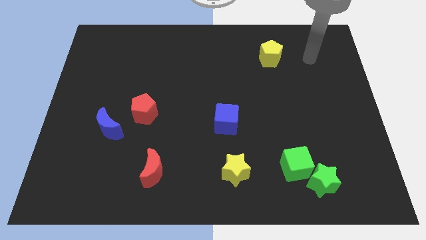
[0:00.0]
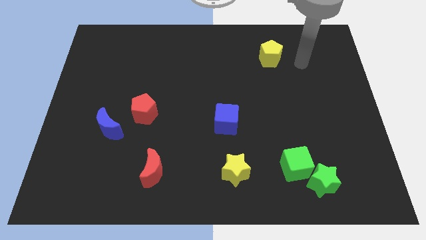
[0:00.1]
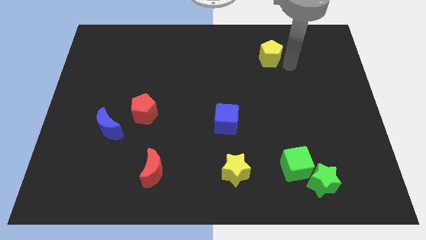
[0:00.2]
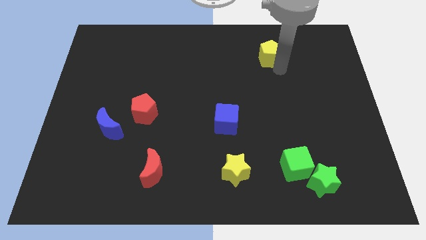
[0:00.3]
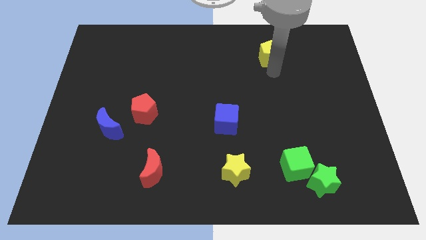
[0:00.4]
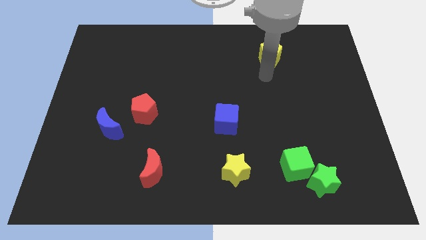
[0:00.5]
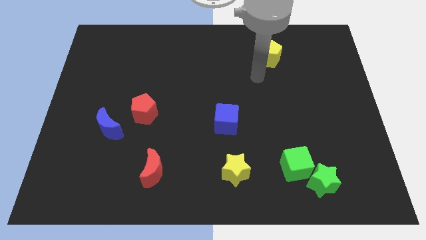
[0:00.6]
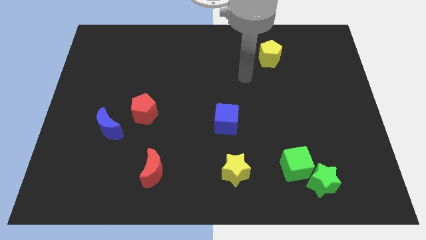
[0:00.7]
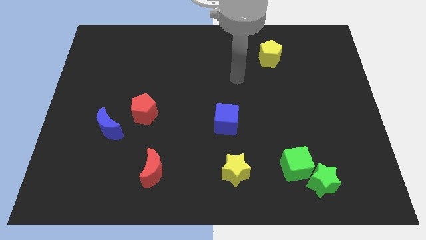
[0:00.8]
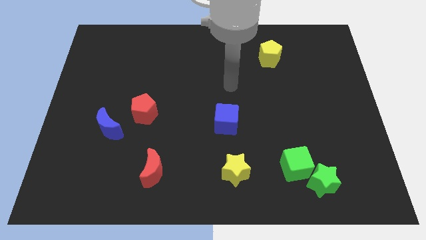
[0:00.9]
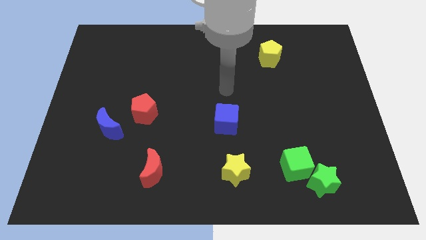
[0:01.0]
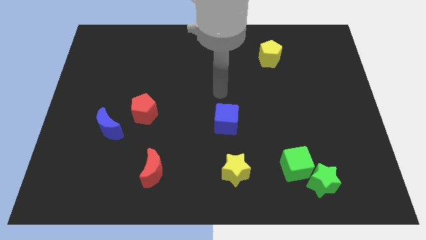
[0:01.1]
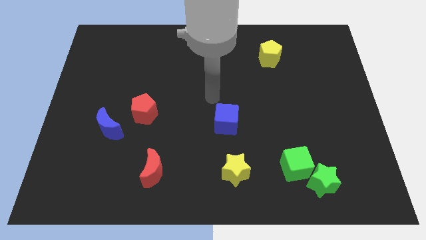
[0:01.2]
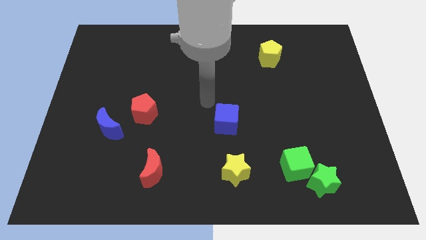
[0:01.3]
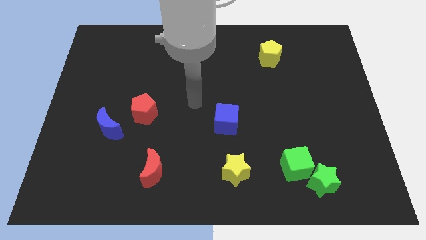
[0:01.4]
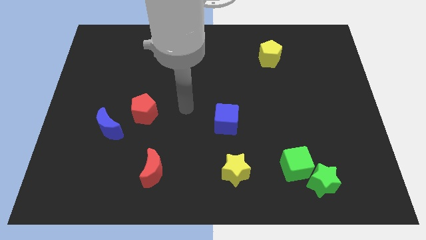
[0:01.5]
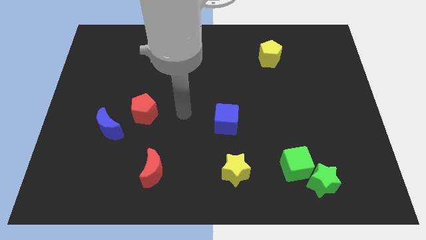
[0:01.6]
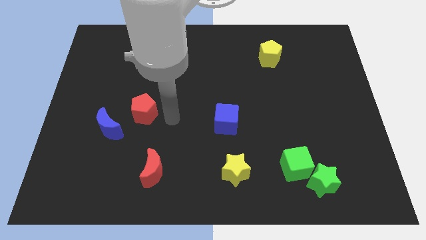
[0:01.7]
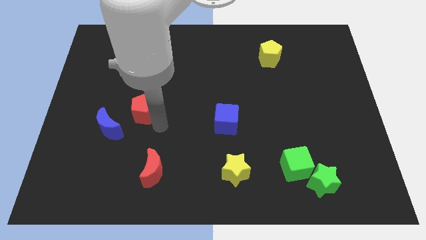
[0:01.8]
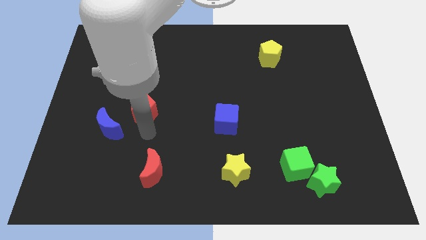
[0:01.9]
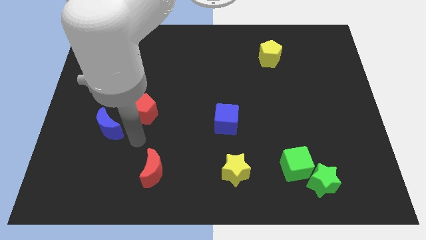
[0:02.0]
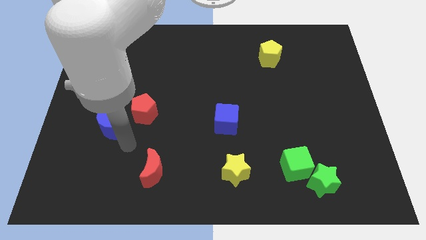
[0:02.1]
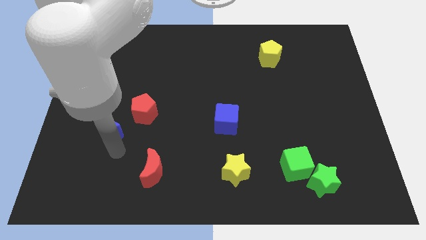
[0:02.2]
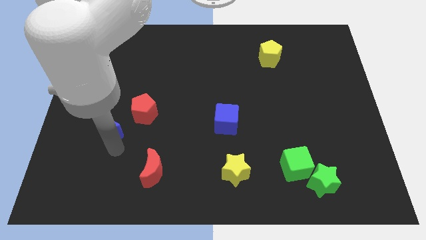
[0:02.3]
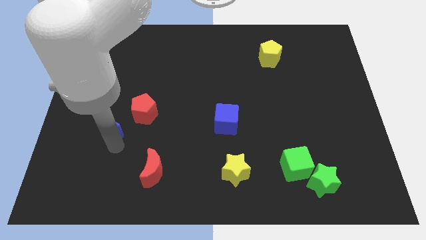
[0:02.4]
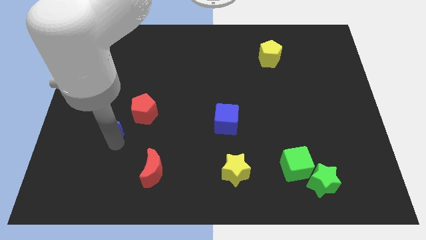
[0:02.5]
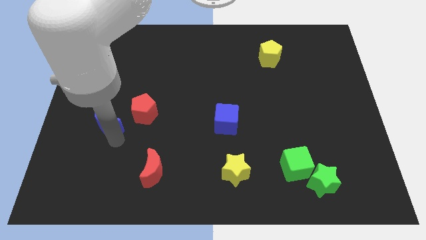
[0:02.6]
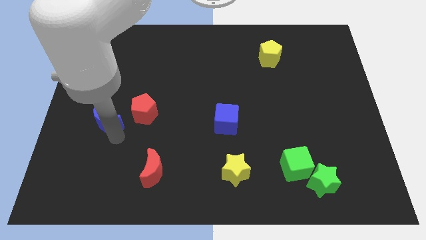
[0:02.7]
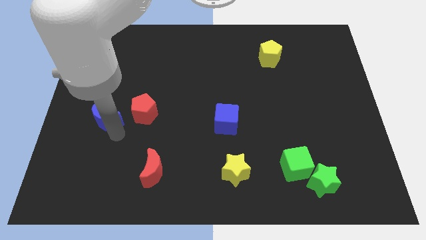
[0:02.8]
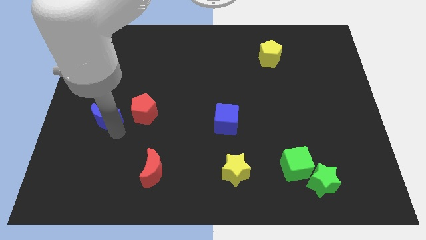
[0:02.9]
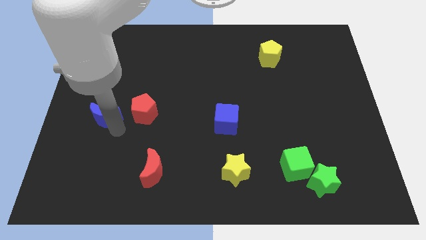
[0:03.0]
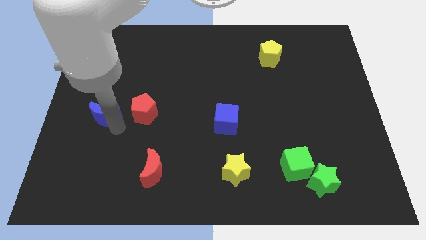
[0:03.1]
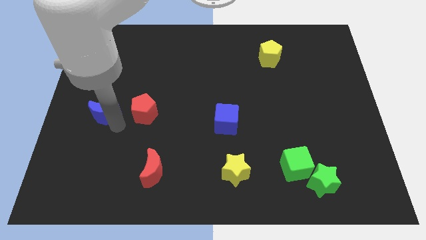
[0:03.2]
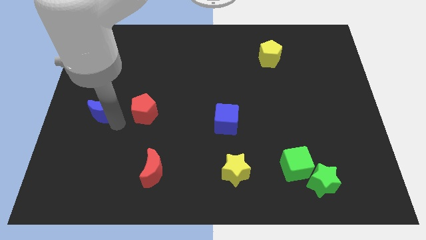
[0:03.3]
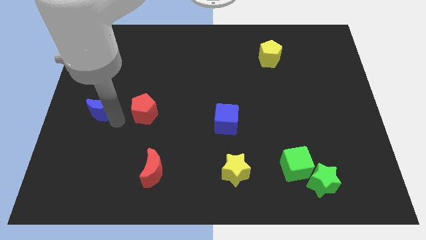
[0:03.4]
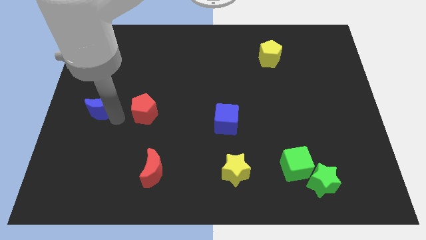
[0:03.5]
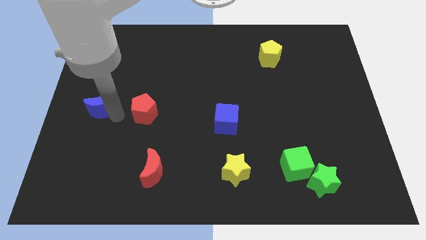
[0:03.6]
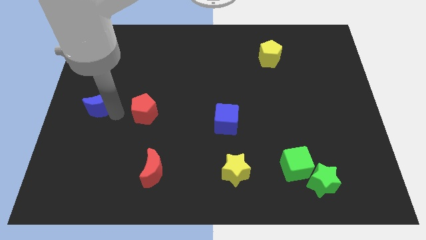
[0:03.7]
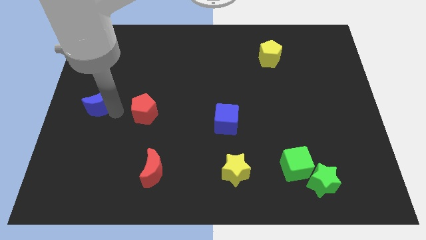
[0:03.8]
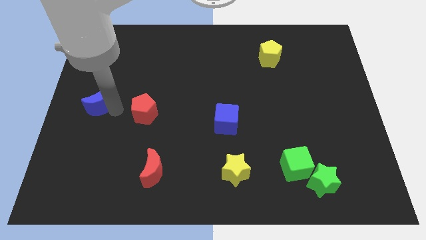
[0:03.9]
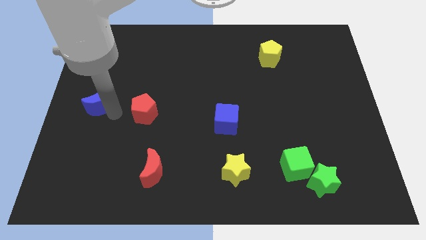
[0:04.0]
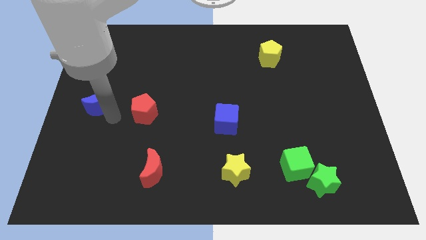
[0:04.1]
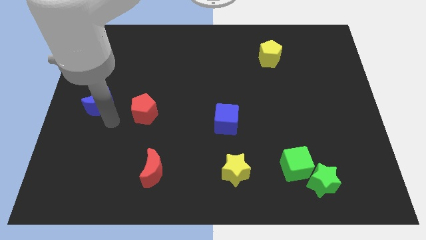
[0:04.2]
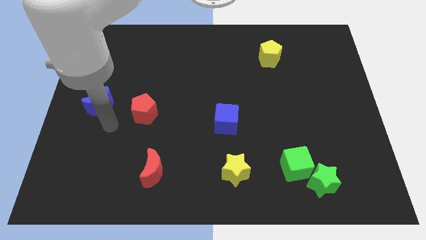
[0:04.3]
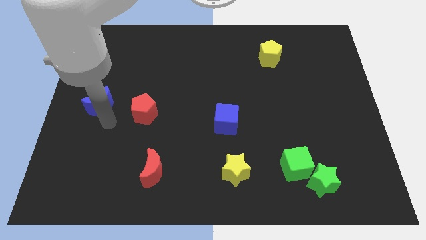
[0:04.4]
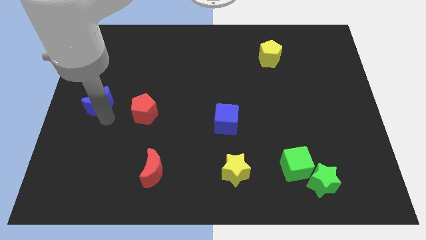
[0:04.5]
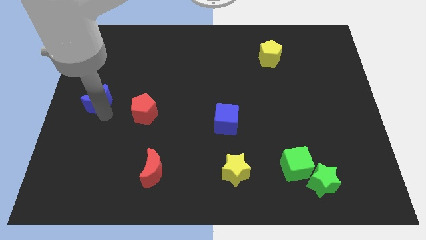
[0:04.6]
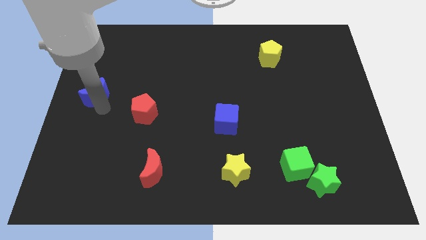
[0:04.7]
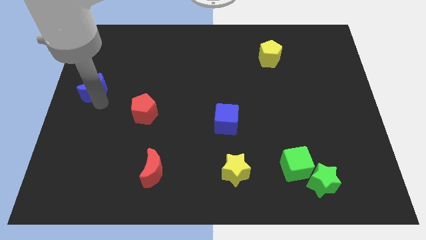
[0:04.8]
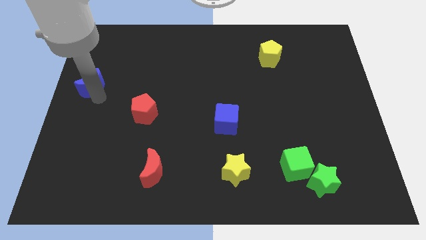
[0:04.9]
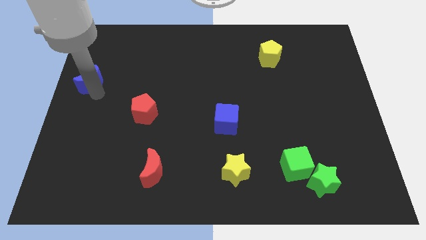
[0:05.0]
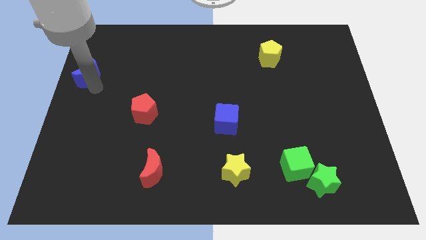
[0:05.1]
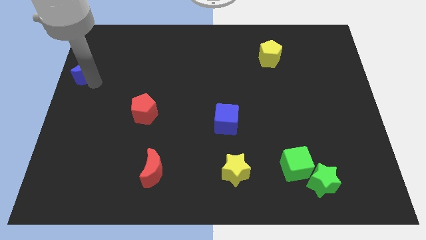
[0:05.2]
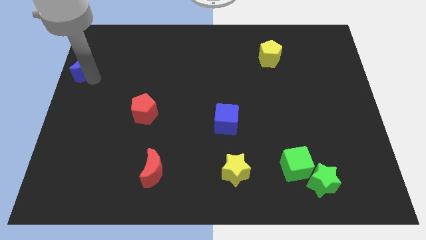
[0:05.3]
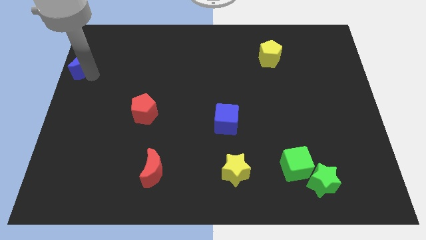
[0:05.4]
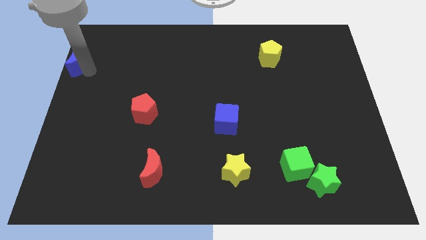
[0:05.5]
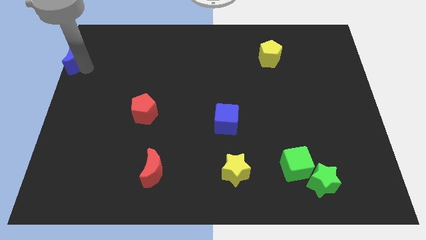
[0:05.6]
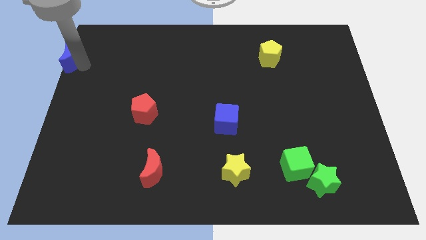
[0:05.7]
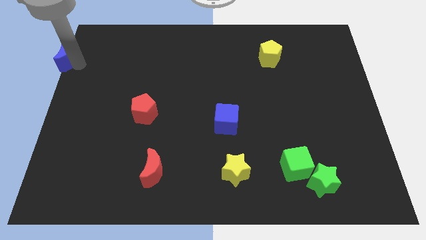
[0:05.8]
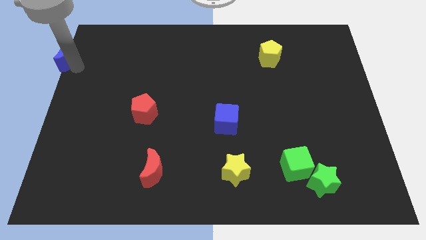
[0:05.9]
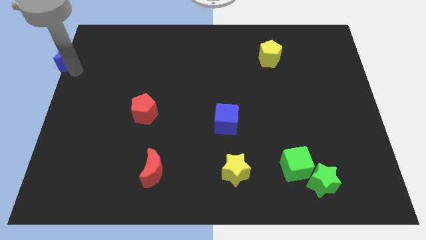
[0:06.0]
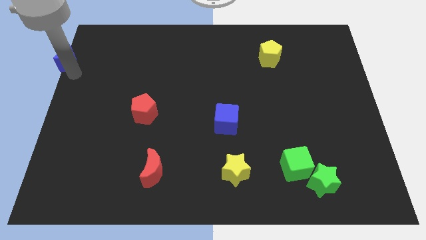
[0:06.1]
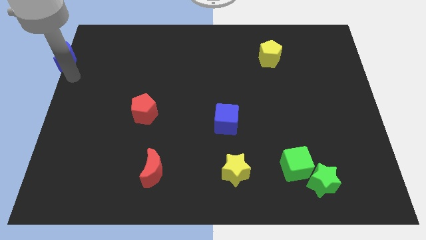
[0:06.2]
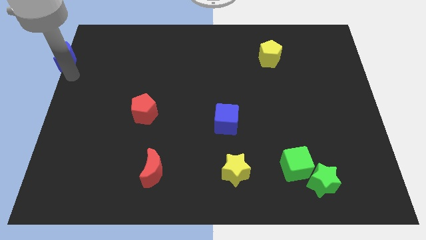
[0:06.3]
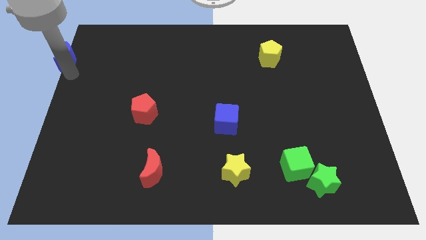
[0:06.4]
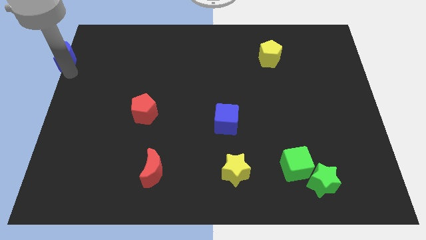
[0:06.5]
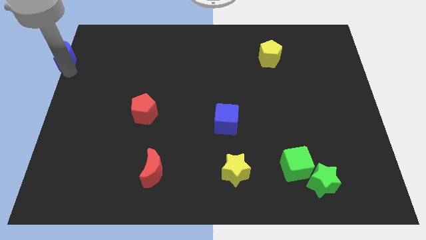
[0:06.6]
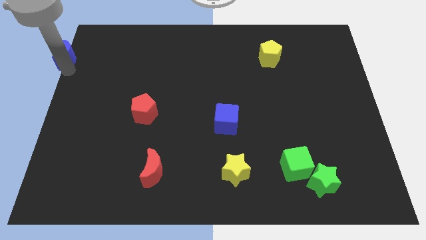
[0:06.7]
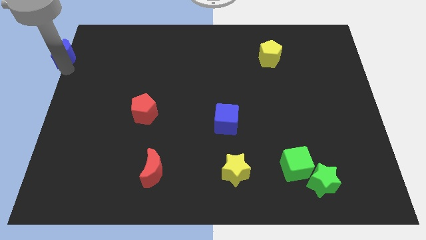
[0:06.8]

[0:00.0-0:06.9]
push the blue moon to the top left of the board

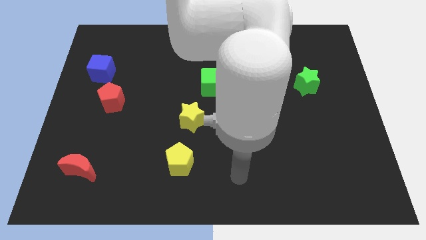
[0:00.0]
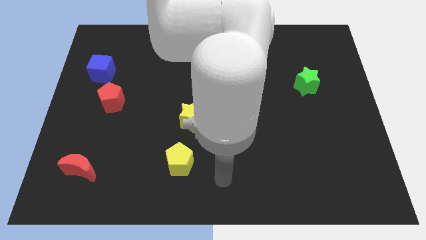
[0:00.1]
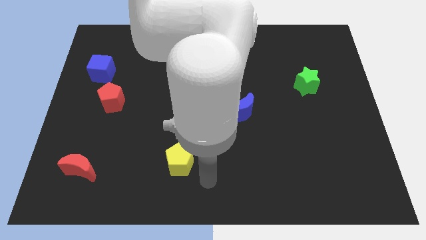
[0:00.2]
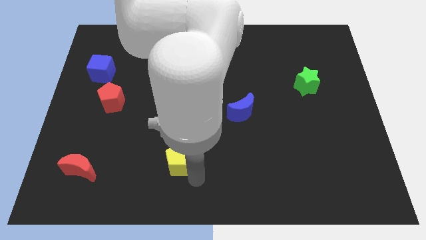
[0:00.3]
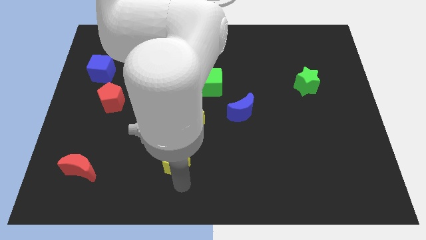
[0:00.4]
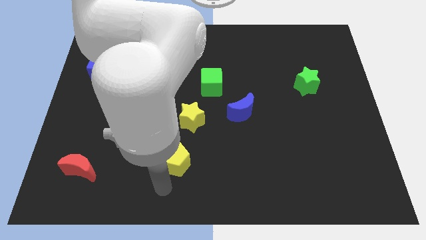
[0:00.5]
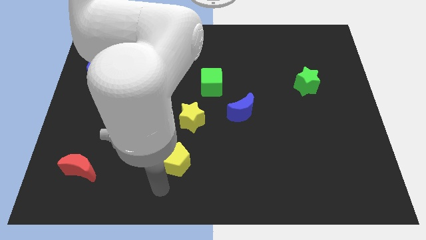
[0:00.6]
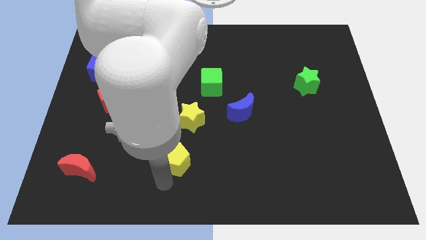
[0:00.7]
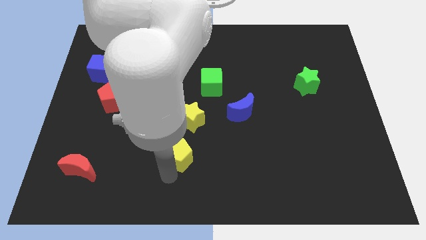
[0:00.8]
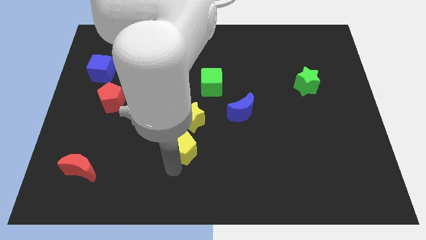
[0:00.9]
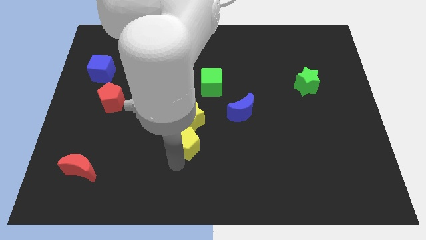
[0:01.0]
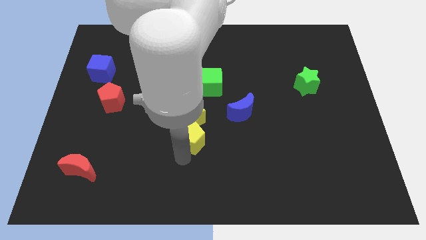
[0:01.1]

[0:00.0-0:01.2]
move the yellow pentagon to the middle of the board
